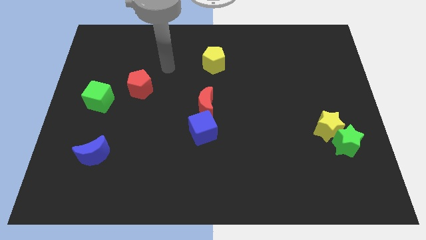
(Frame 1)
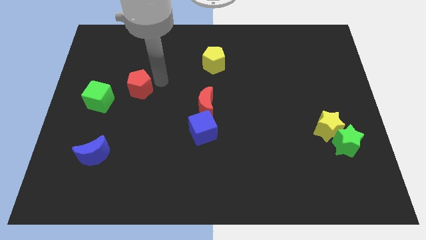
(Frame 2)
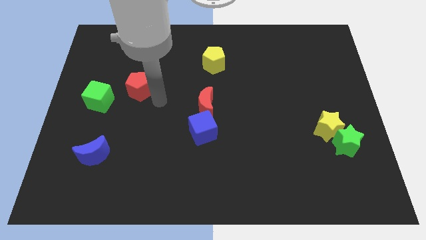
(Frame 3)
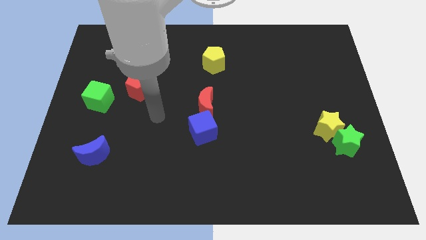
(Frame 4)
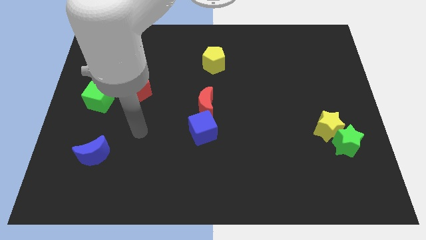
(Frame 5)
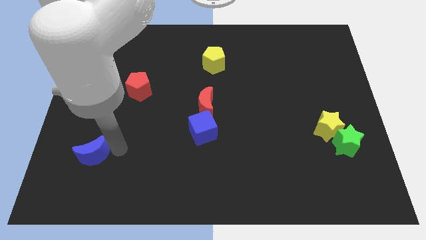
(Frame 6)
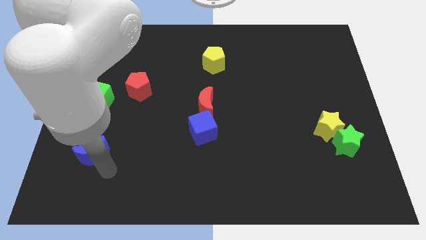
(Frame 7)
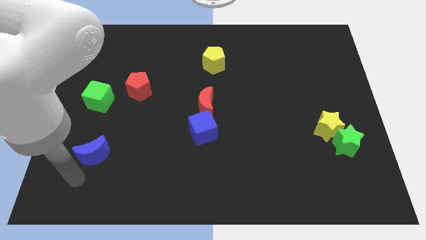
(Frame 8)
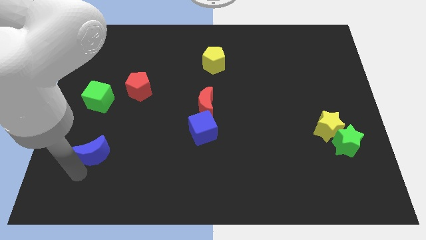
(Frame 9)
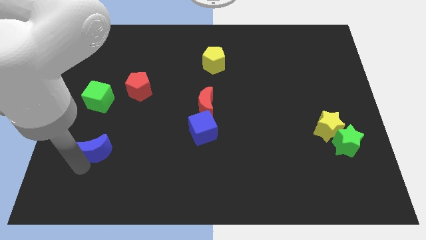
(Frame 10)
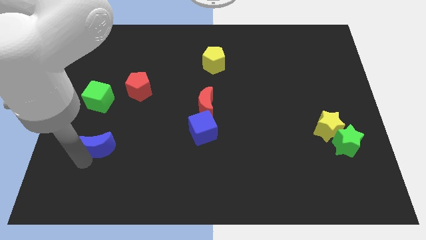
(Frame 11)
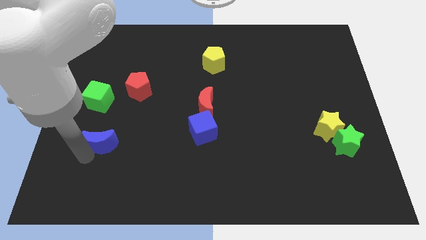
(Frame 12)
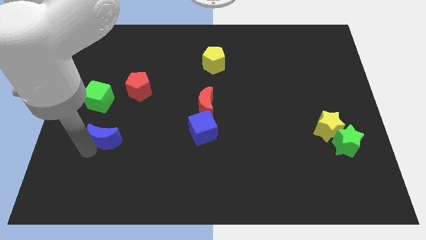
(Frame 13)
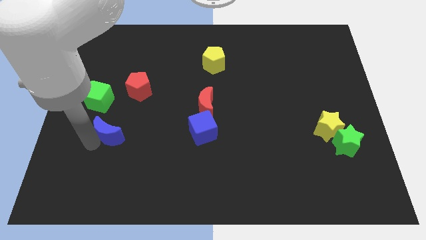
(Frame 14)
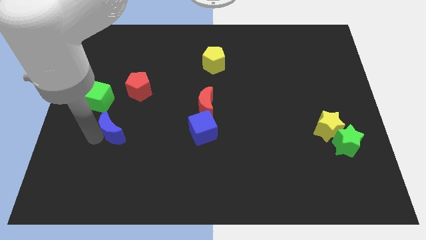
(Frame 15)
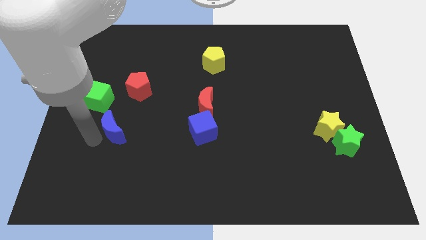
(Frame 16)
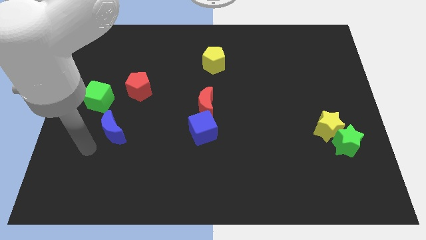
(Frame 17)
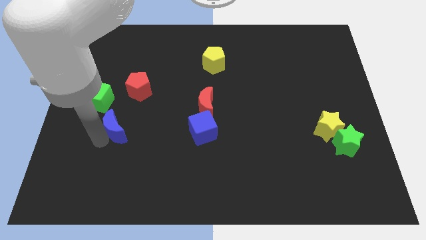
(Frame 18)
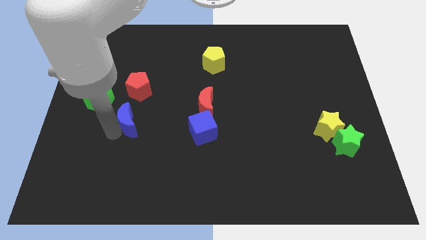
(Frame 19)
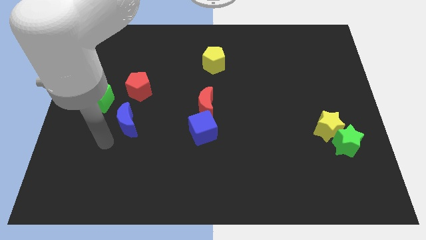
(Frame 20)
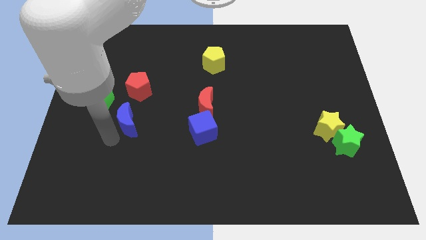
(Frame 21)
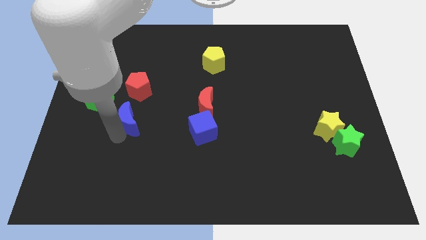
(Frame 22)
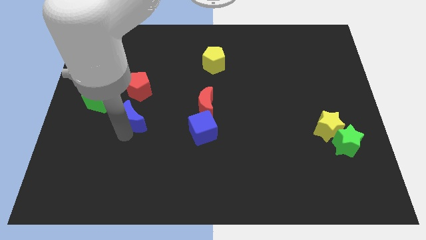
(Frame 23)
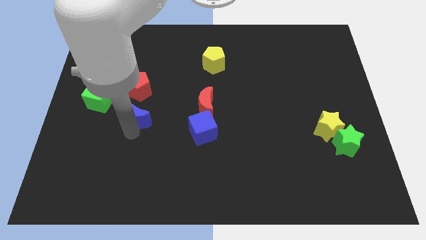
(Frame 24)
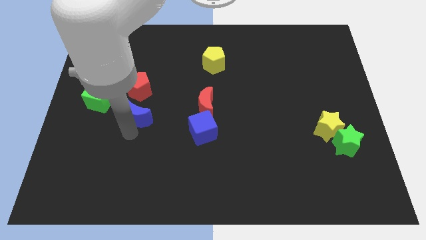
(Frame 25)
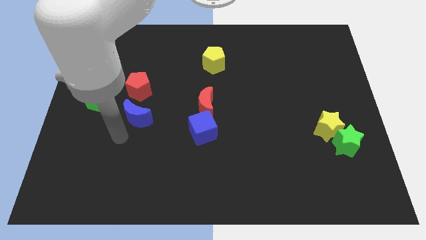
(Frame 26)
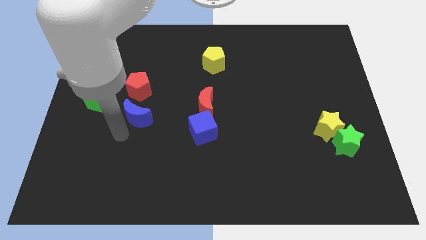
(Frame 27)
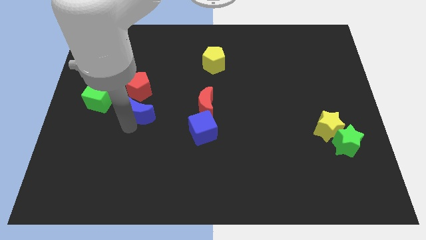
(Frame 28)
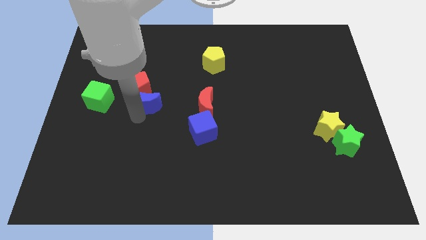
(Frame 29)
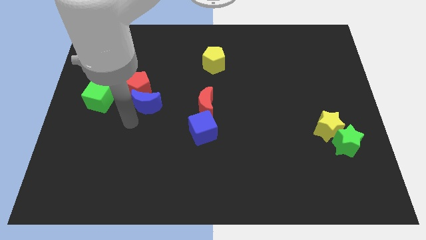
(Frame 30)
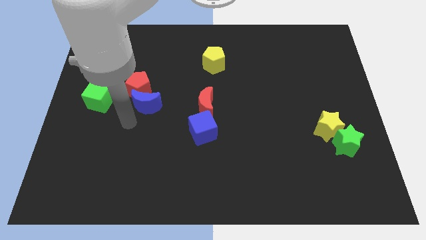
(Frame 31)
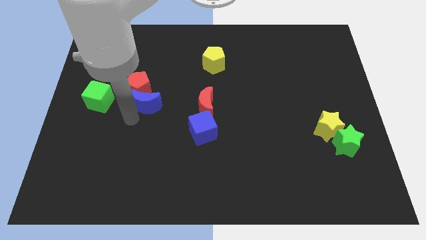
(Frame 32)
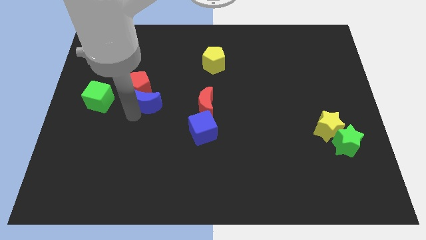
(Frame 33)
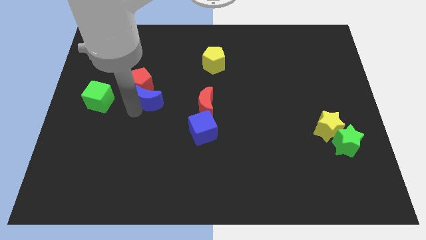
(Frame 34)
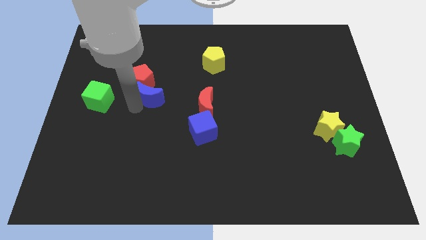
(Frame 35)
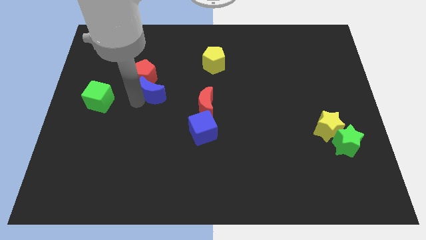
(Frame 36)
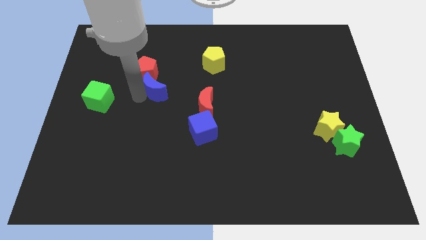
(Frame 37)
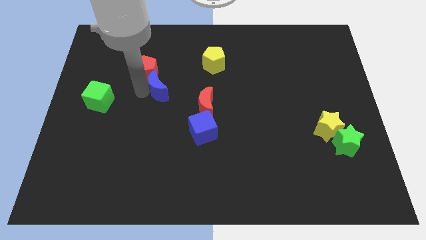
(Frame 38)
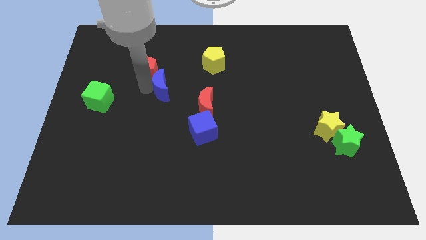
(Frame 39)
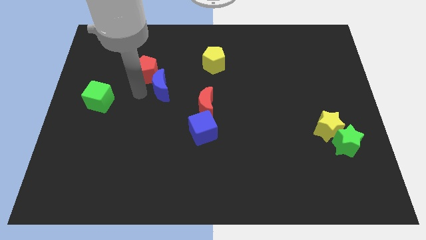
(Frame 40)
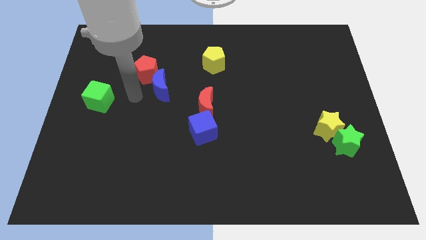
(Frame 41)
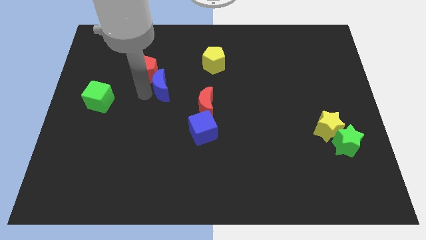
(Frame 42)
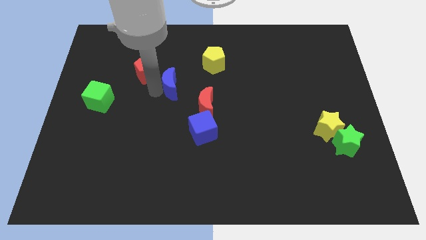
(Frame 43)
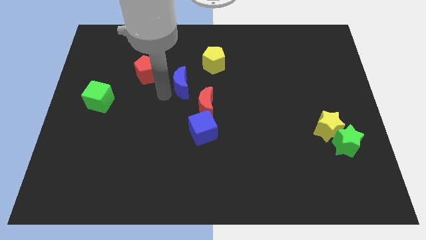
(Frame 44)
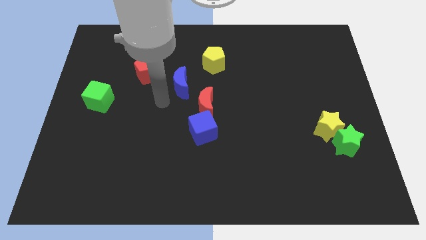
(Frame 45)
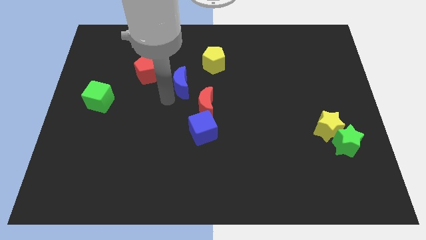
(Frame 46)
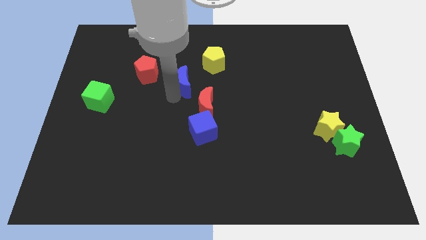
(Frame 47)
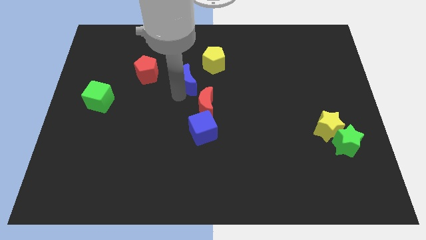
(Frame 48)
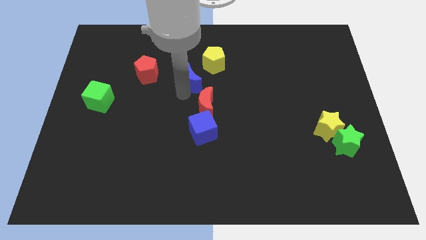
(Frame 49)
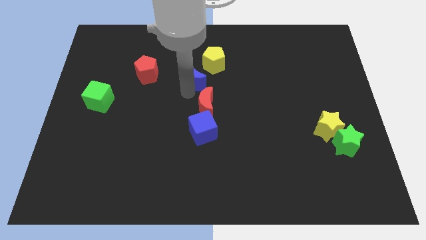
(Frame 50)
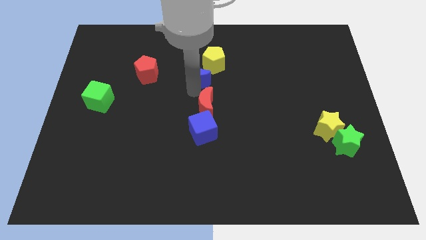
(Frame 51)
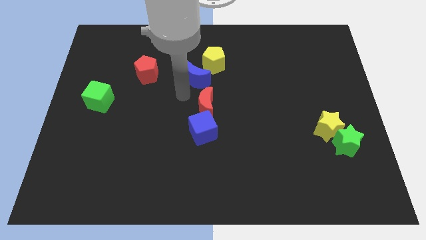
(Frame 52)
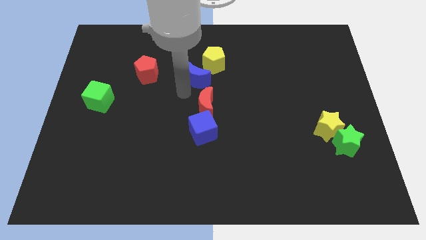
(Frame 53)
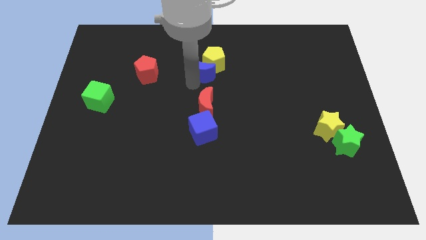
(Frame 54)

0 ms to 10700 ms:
push the blue moon towards the yellow pentagon

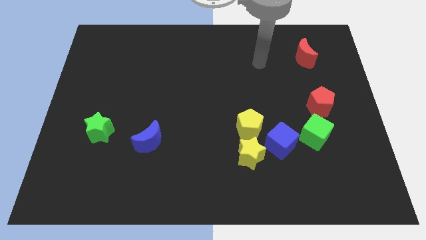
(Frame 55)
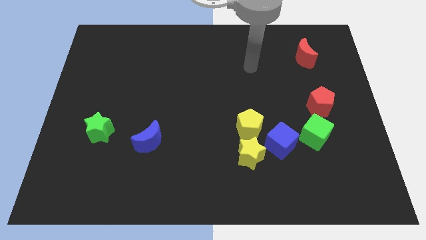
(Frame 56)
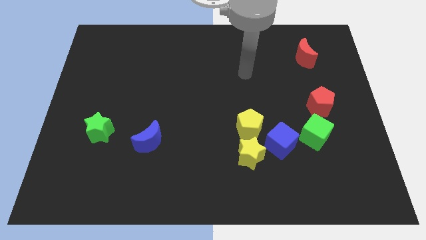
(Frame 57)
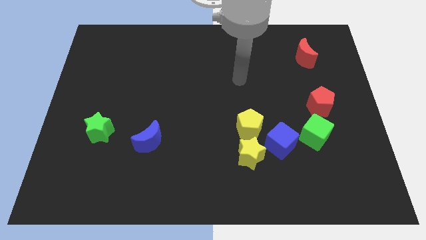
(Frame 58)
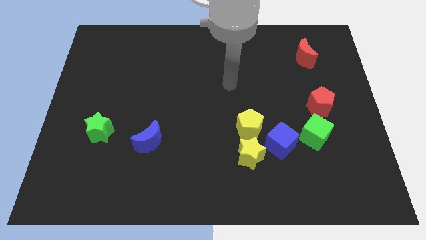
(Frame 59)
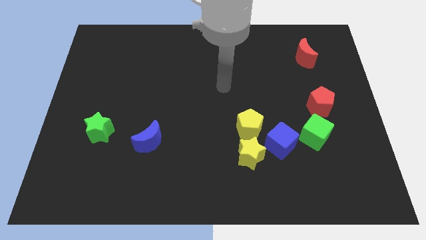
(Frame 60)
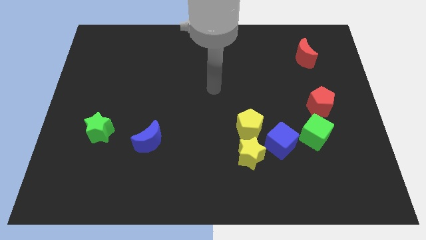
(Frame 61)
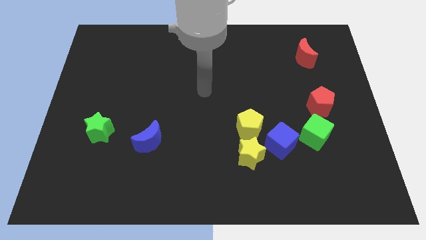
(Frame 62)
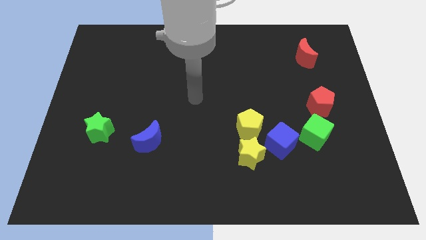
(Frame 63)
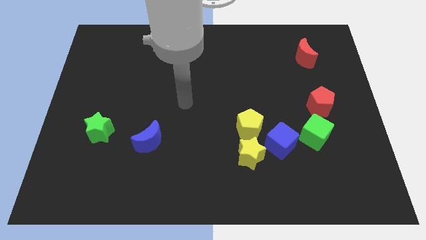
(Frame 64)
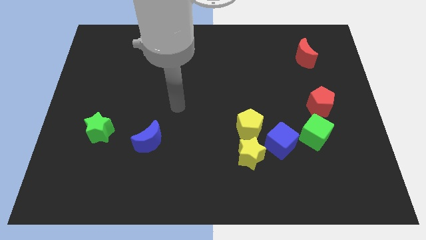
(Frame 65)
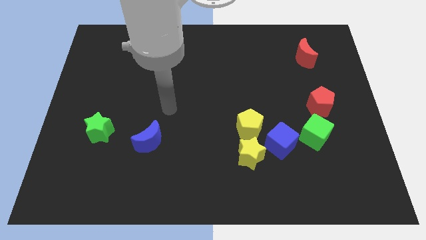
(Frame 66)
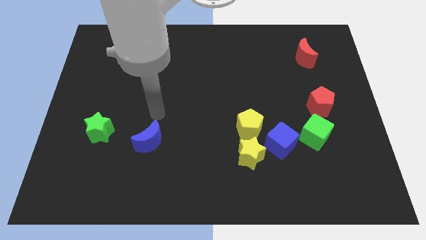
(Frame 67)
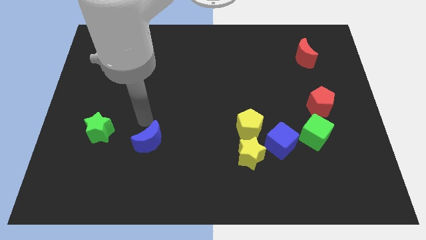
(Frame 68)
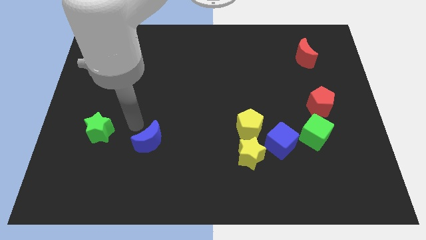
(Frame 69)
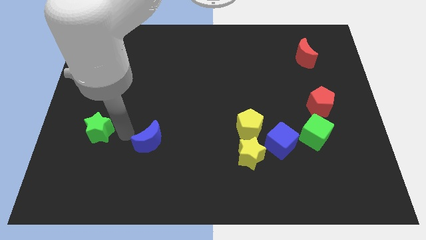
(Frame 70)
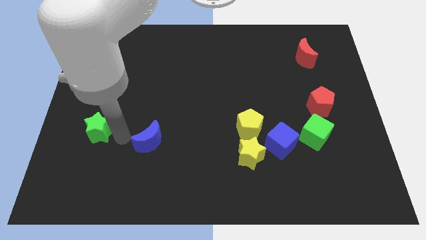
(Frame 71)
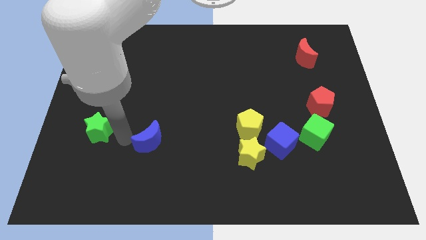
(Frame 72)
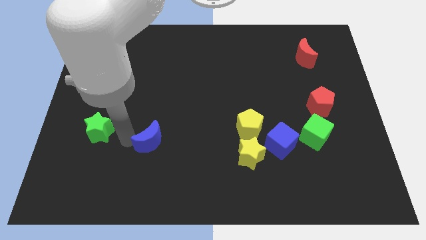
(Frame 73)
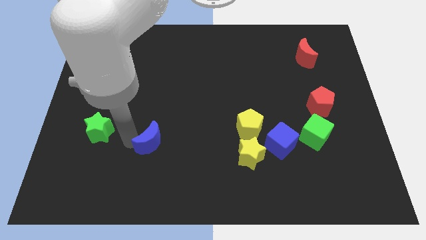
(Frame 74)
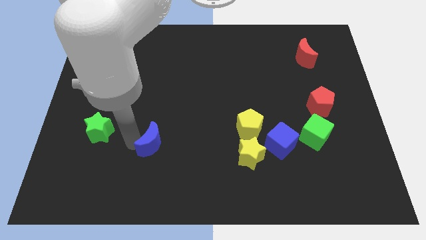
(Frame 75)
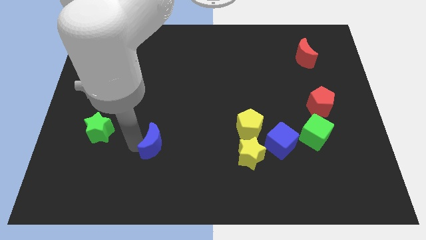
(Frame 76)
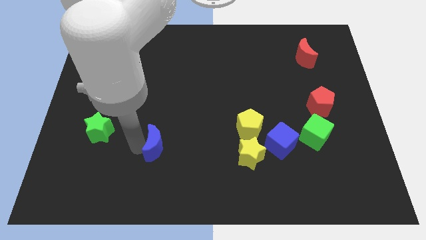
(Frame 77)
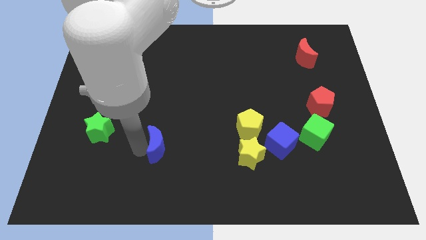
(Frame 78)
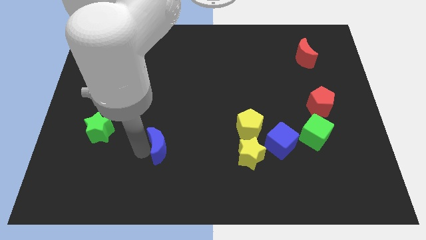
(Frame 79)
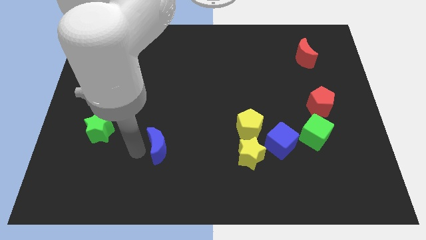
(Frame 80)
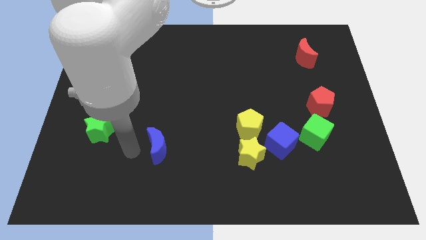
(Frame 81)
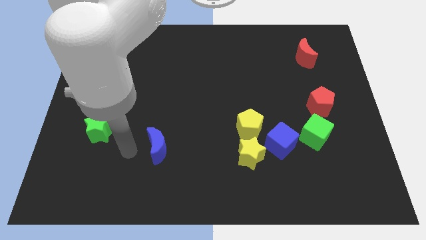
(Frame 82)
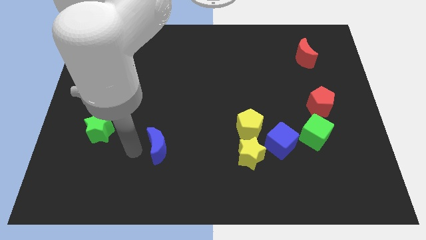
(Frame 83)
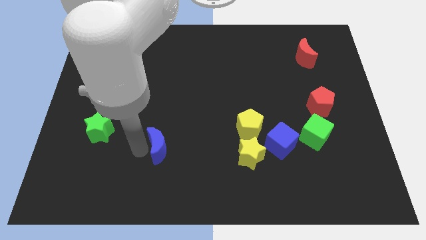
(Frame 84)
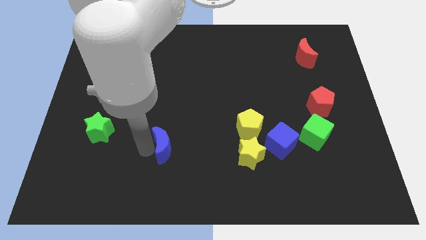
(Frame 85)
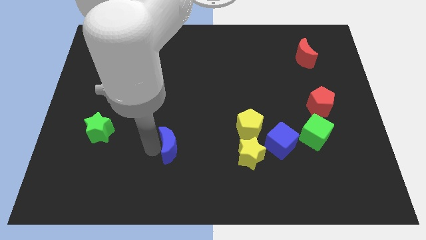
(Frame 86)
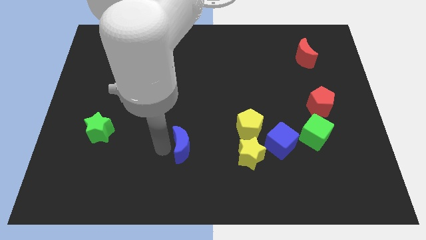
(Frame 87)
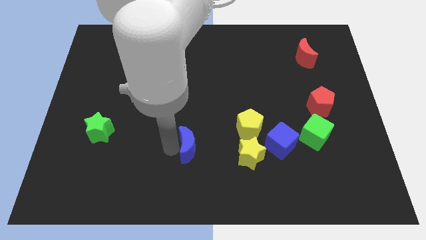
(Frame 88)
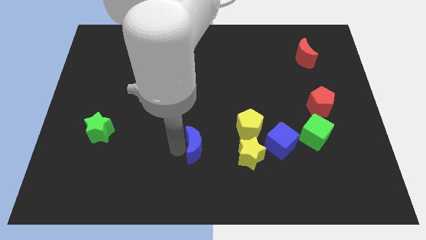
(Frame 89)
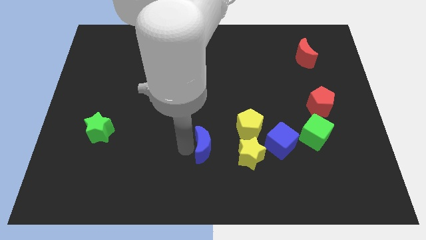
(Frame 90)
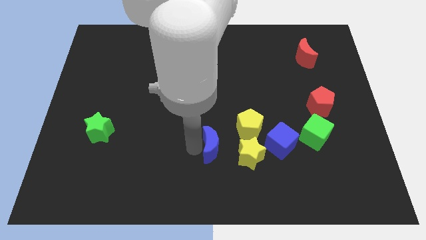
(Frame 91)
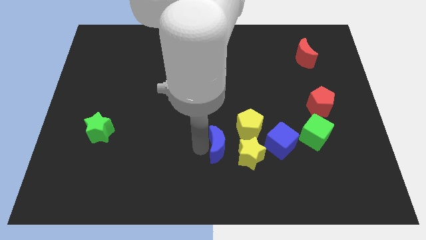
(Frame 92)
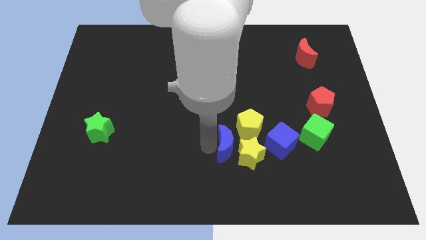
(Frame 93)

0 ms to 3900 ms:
put the blue moon close to the yellow star
